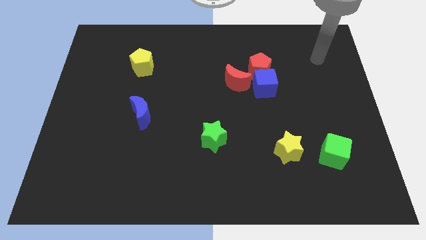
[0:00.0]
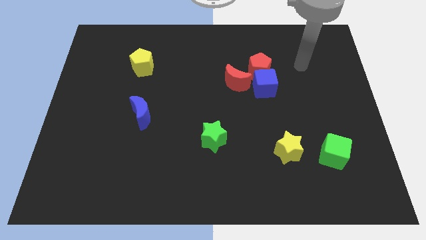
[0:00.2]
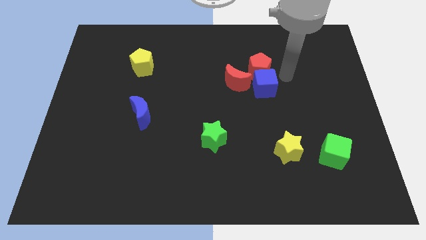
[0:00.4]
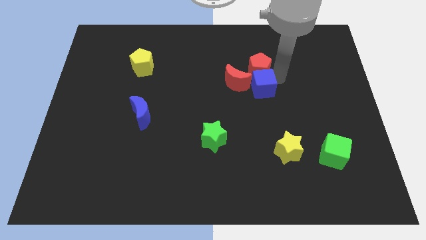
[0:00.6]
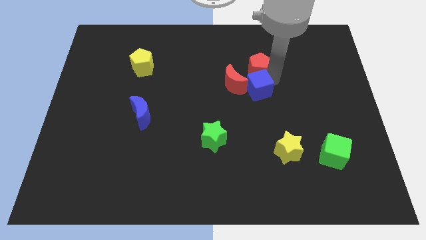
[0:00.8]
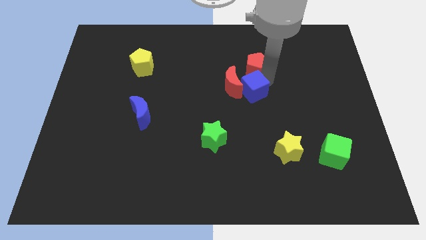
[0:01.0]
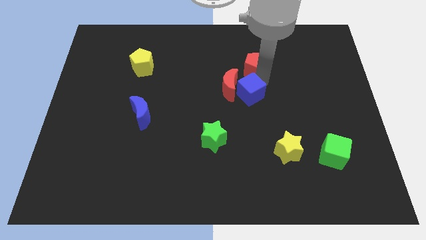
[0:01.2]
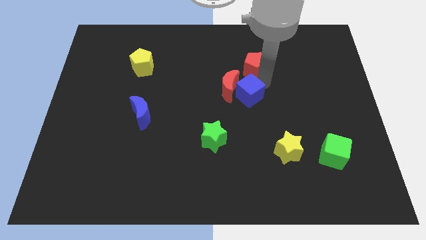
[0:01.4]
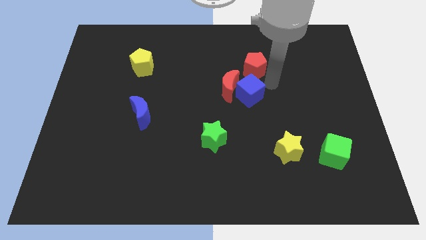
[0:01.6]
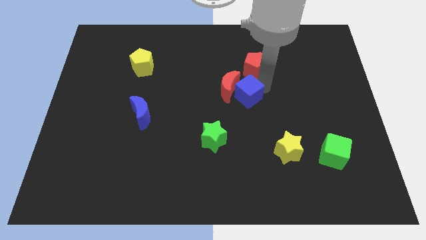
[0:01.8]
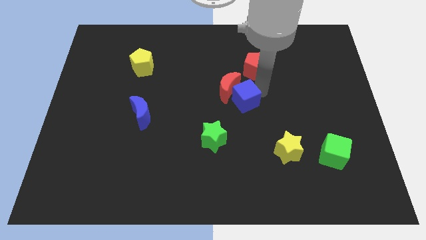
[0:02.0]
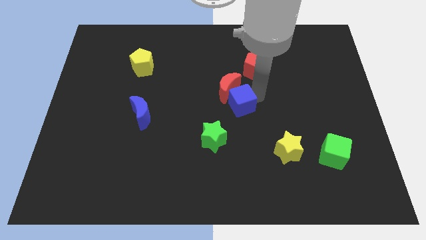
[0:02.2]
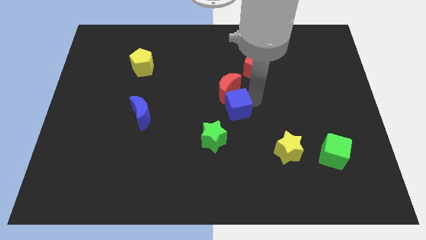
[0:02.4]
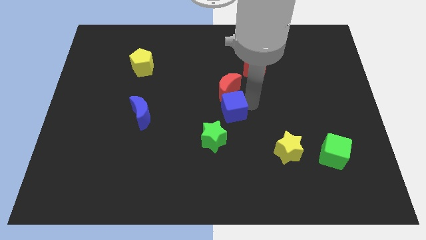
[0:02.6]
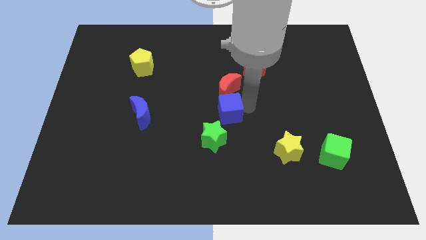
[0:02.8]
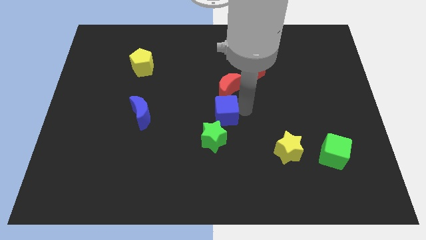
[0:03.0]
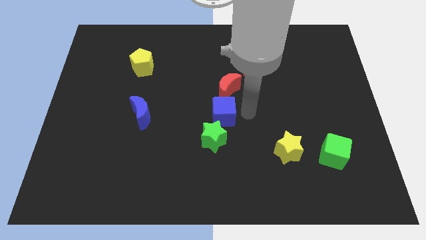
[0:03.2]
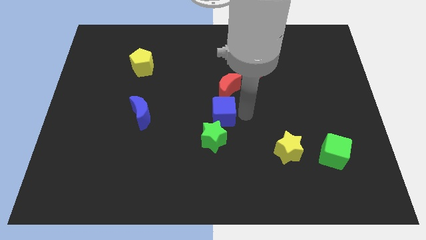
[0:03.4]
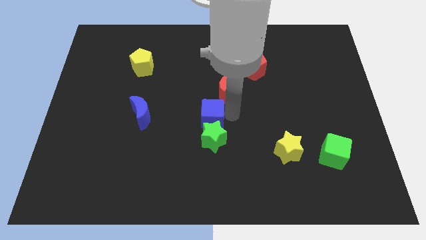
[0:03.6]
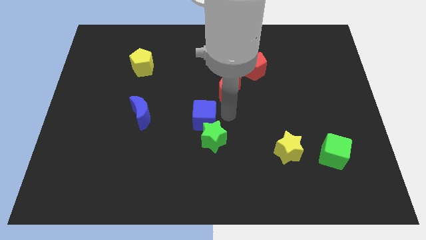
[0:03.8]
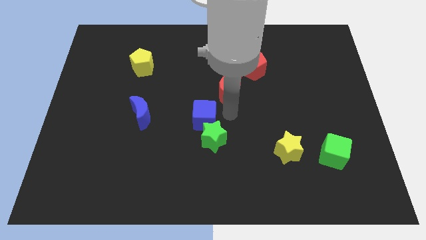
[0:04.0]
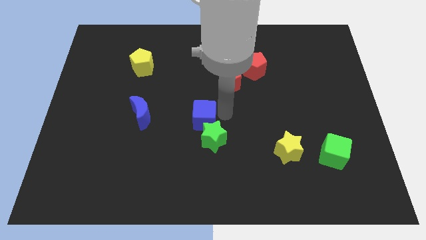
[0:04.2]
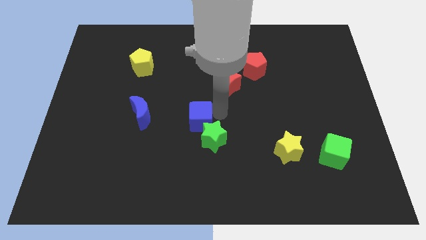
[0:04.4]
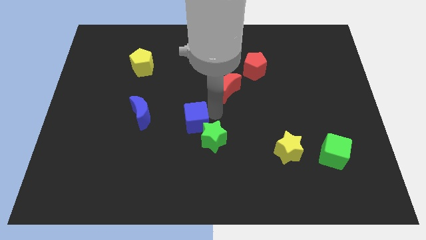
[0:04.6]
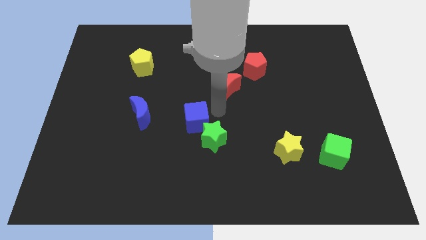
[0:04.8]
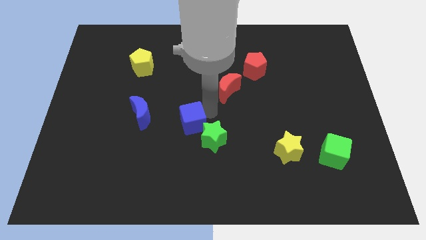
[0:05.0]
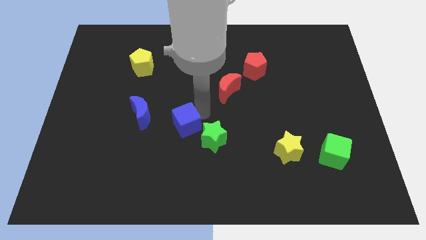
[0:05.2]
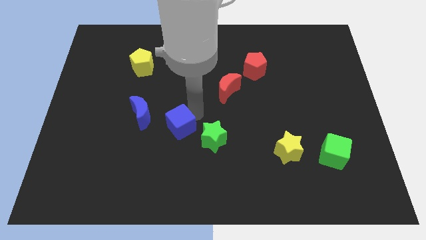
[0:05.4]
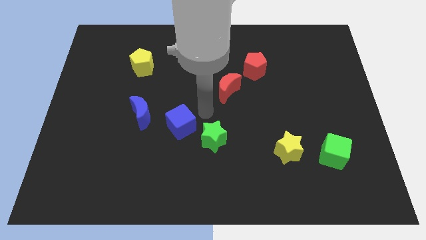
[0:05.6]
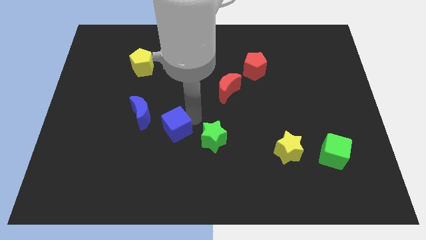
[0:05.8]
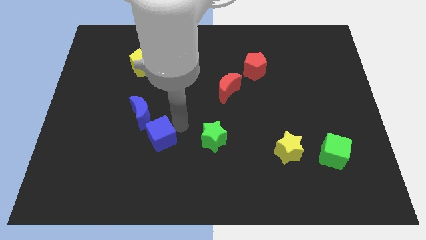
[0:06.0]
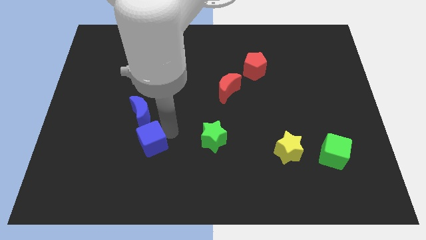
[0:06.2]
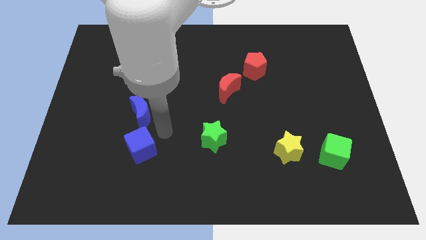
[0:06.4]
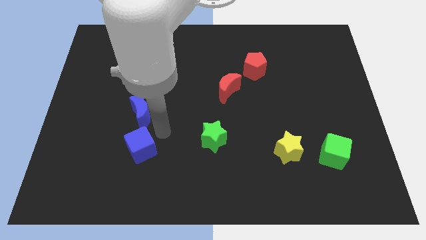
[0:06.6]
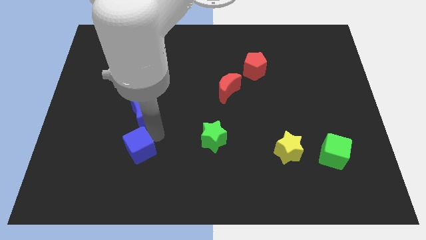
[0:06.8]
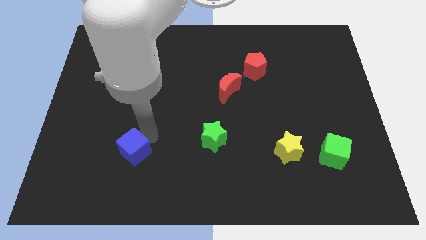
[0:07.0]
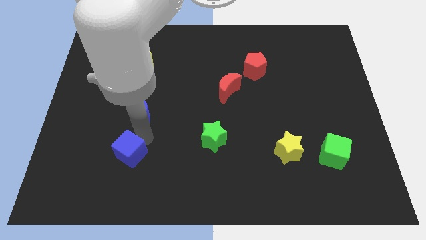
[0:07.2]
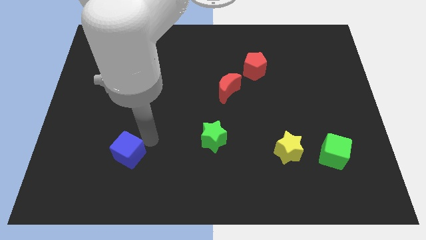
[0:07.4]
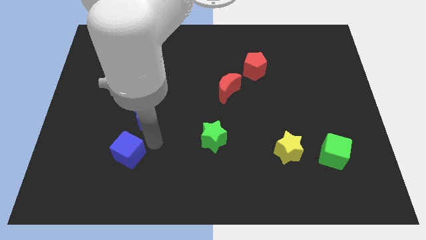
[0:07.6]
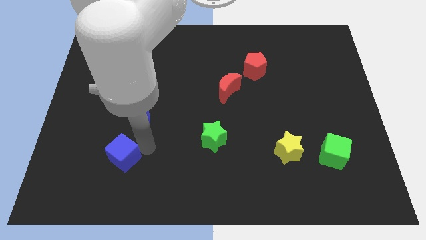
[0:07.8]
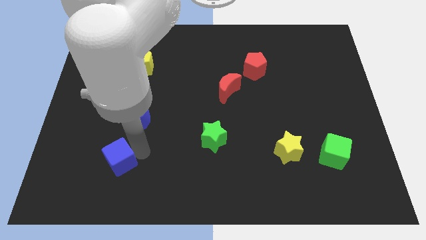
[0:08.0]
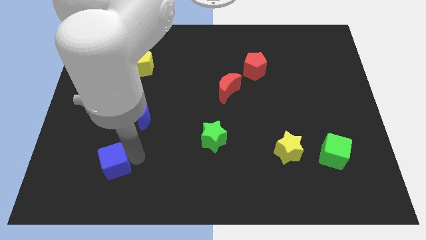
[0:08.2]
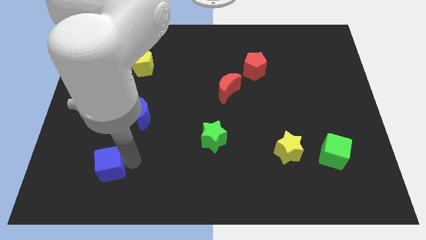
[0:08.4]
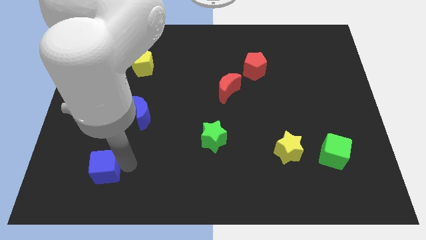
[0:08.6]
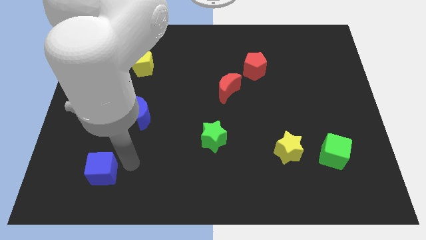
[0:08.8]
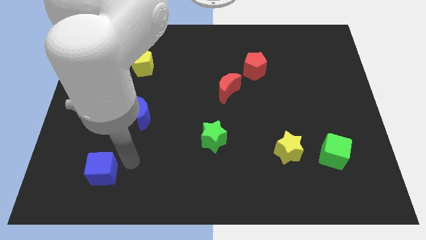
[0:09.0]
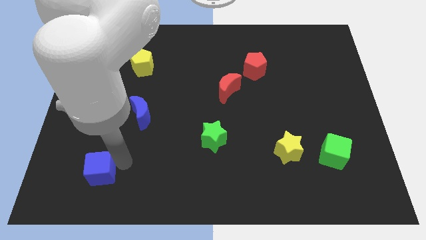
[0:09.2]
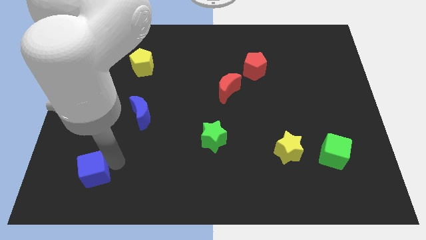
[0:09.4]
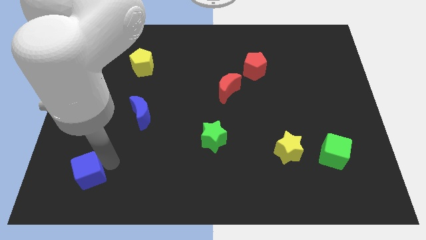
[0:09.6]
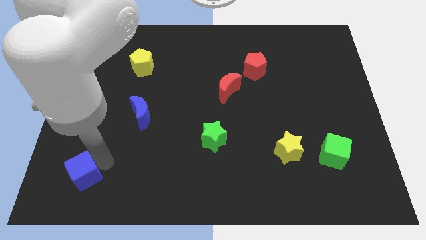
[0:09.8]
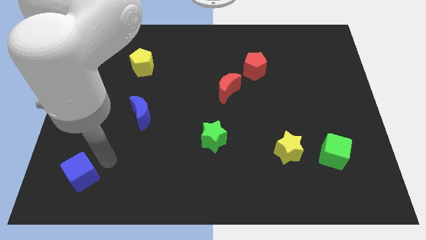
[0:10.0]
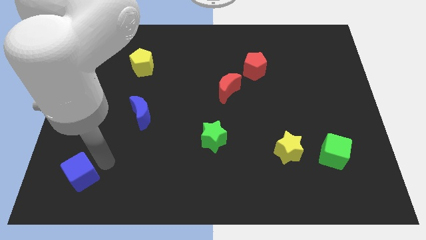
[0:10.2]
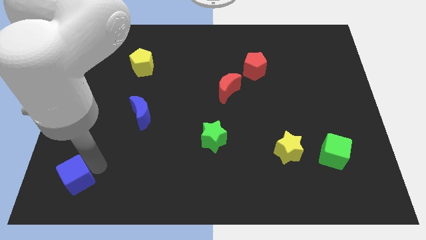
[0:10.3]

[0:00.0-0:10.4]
push the blue cube to the bottom left

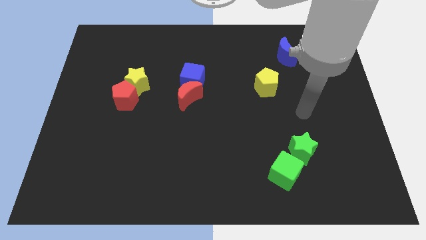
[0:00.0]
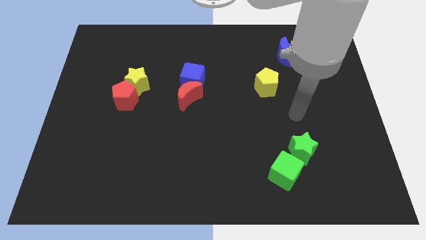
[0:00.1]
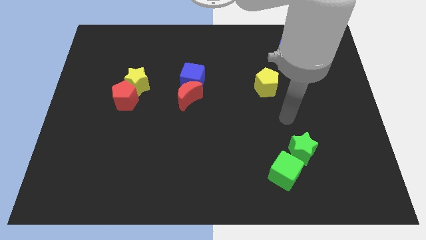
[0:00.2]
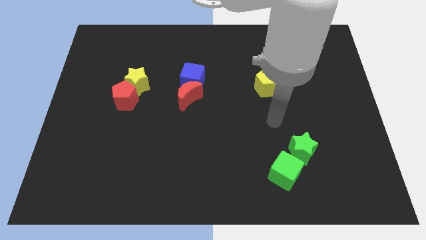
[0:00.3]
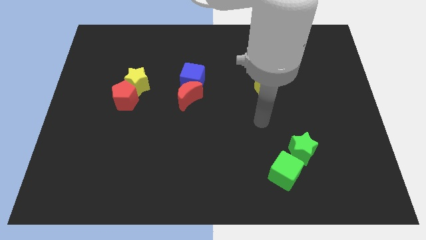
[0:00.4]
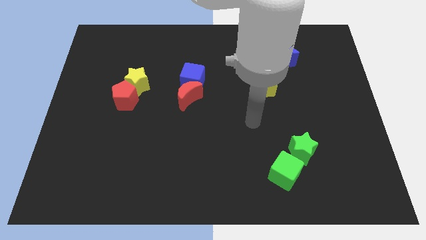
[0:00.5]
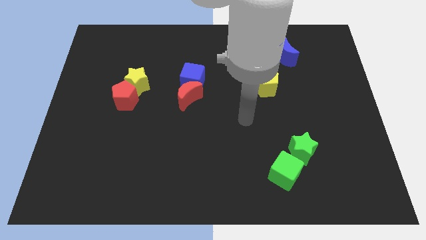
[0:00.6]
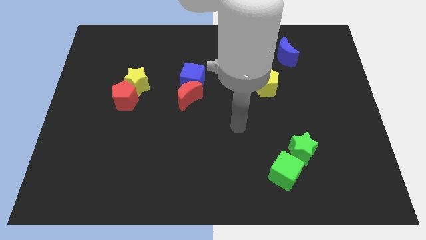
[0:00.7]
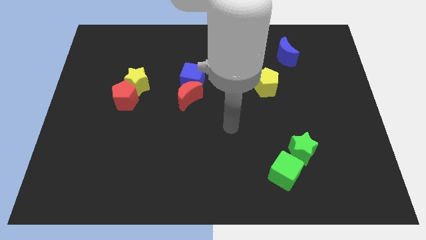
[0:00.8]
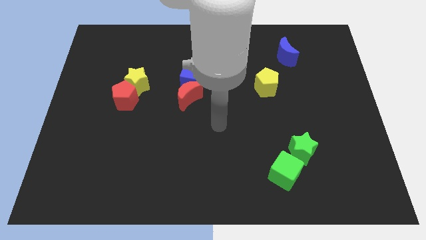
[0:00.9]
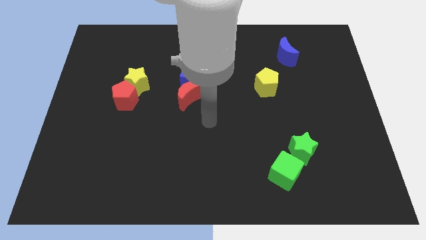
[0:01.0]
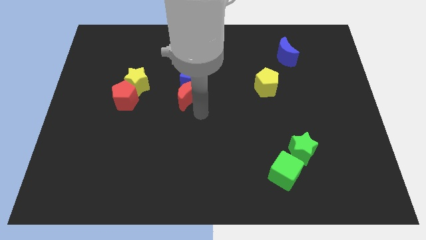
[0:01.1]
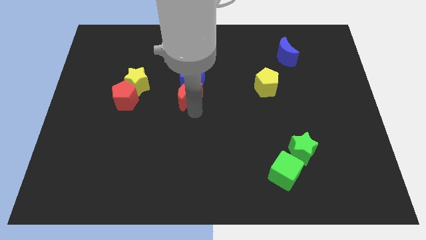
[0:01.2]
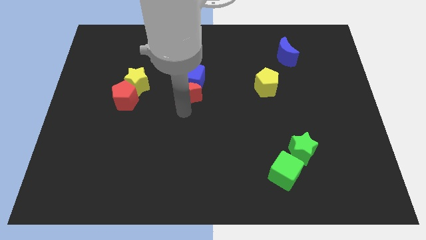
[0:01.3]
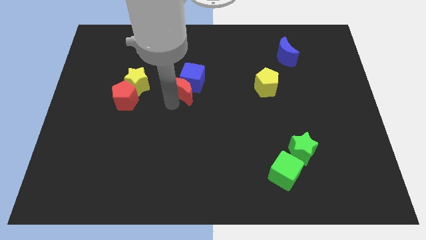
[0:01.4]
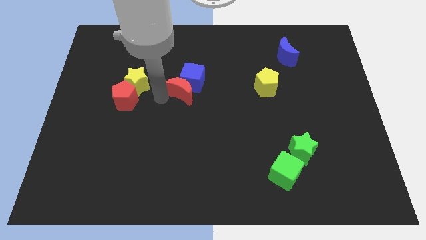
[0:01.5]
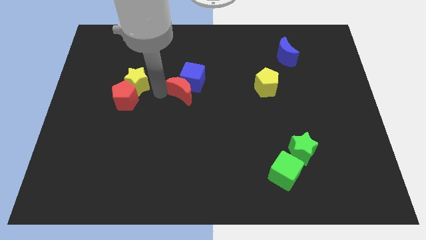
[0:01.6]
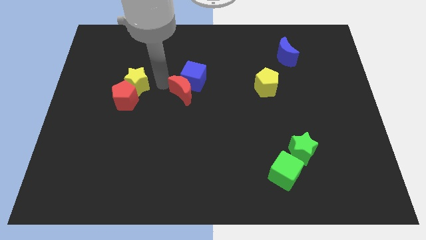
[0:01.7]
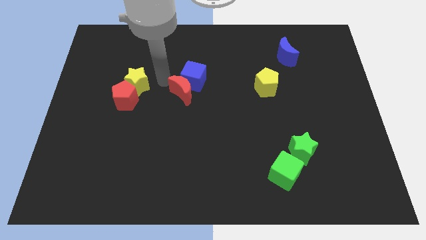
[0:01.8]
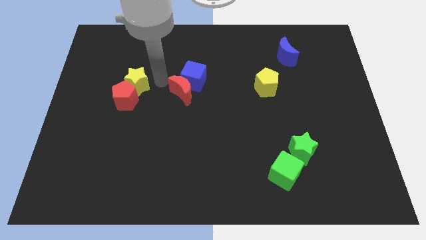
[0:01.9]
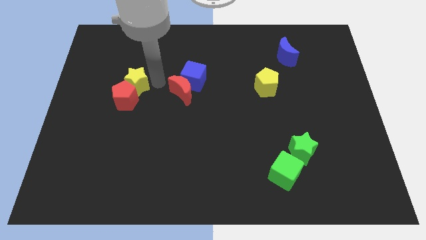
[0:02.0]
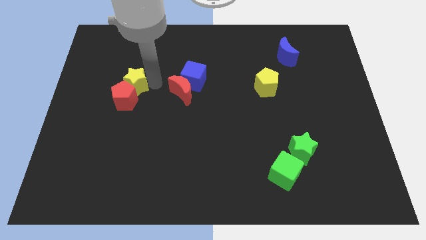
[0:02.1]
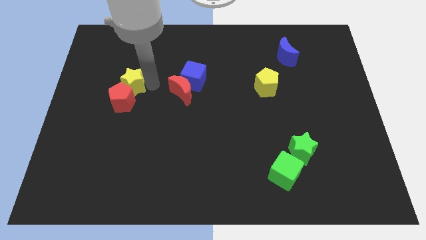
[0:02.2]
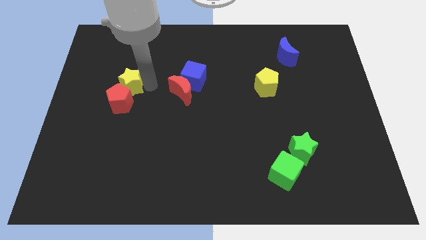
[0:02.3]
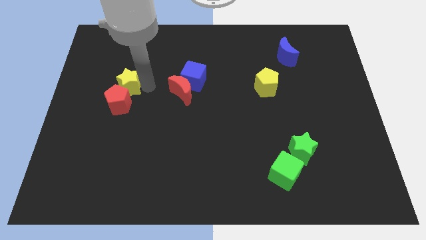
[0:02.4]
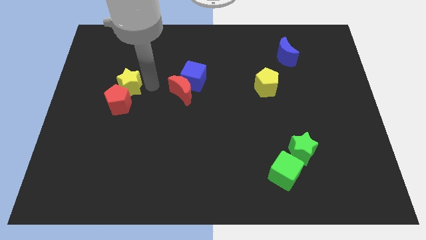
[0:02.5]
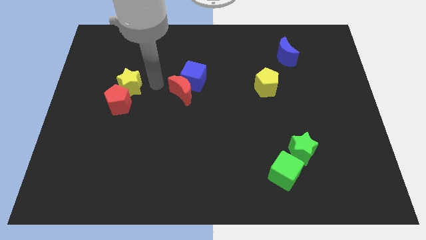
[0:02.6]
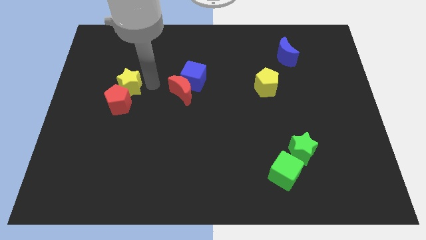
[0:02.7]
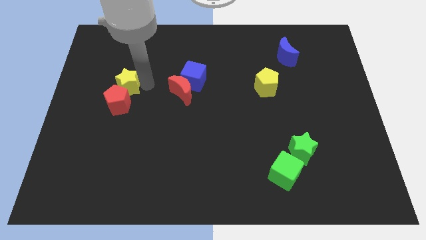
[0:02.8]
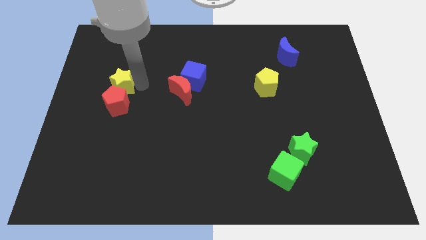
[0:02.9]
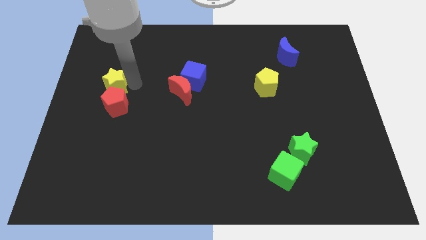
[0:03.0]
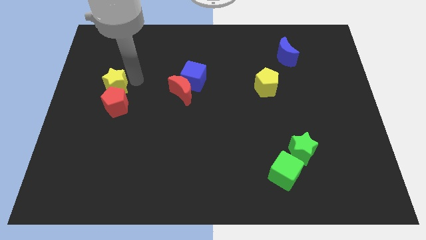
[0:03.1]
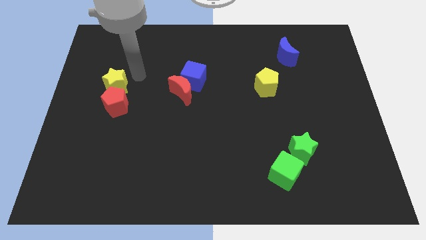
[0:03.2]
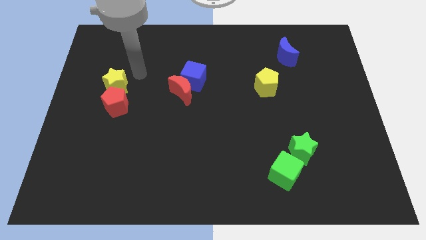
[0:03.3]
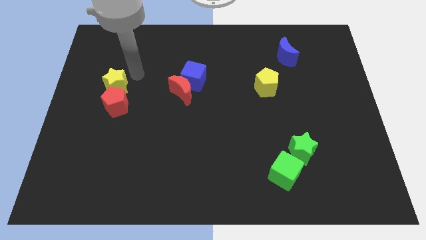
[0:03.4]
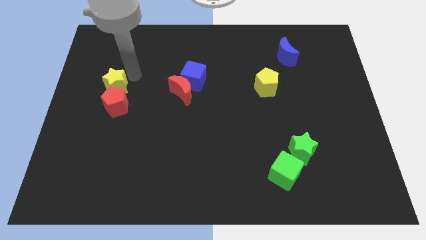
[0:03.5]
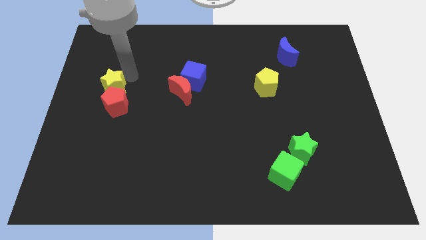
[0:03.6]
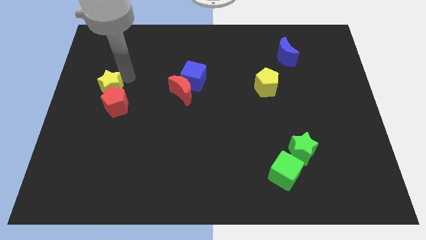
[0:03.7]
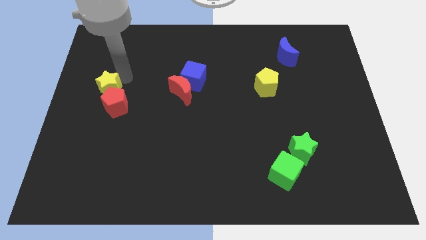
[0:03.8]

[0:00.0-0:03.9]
put the yellow star to the center left
